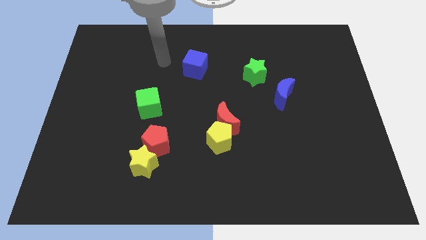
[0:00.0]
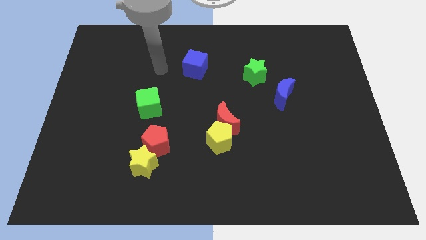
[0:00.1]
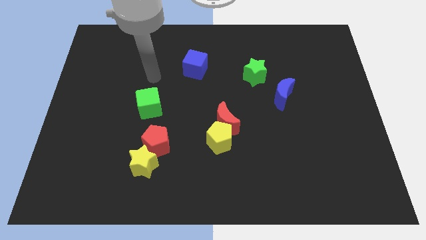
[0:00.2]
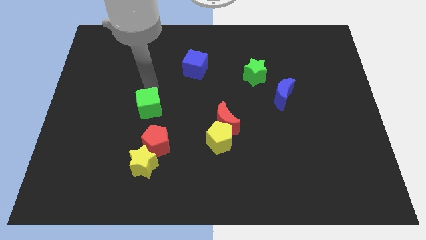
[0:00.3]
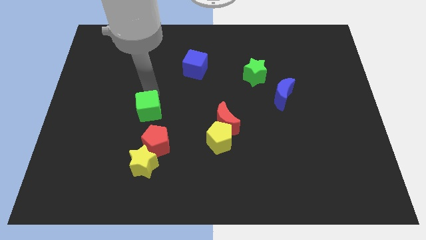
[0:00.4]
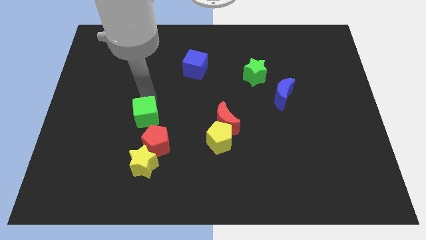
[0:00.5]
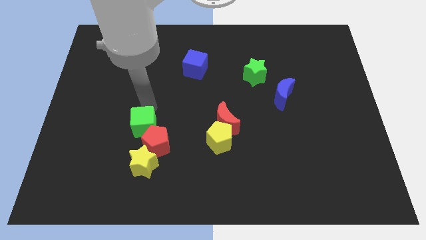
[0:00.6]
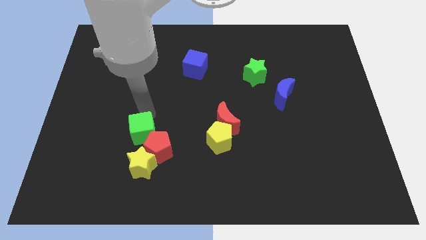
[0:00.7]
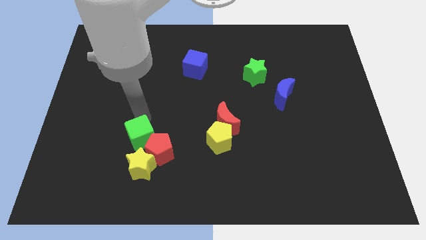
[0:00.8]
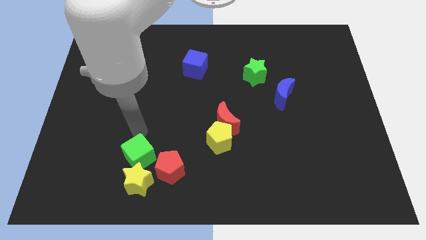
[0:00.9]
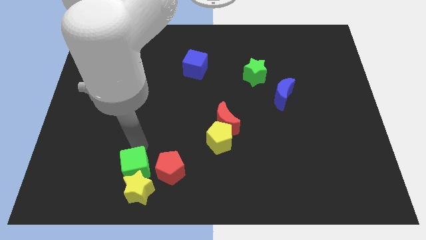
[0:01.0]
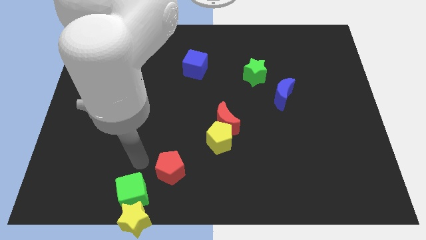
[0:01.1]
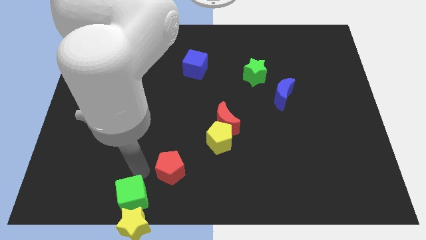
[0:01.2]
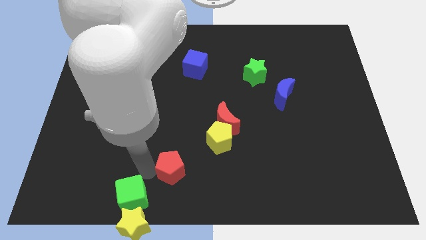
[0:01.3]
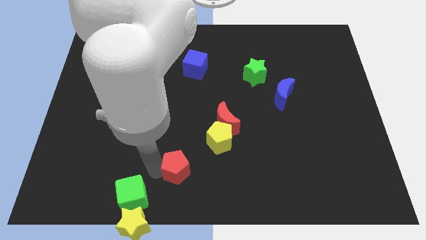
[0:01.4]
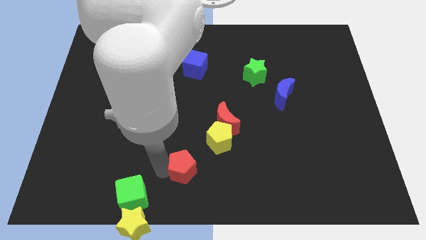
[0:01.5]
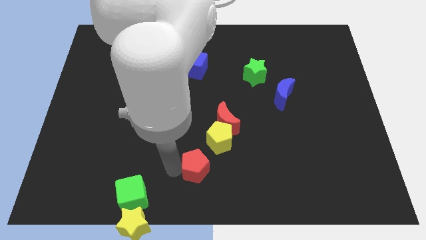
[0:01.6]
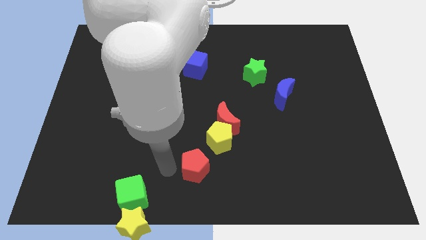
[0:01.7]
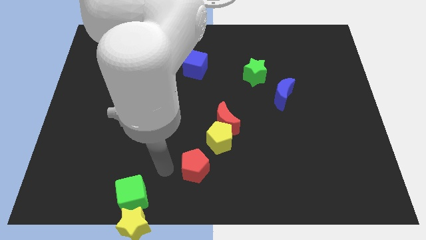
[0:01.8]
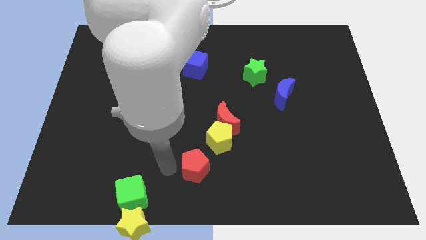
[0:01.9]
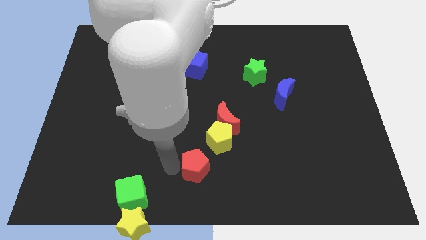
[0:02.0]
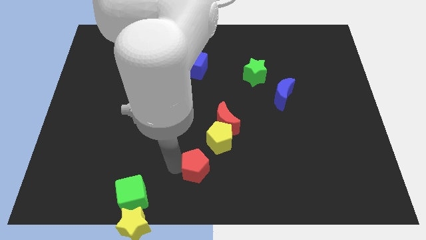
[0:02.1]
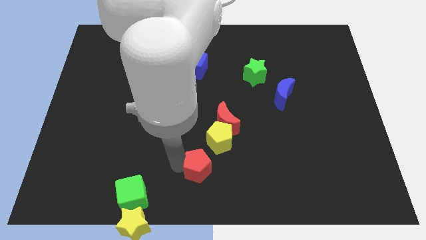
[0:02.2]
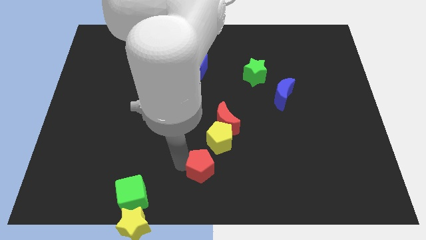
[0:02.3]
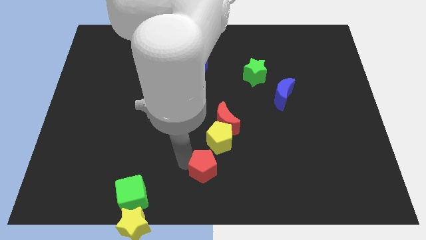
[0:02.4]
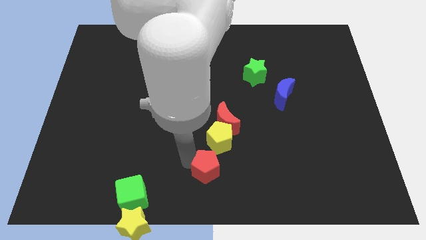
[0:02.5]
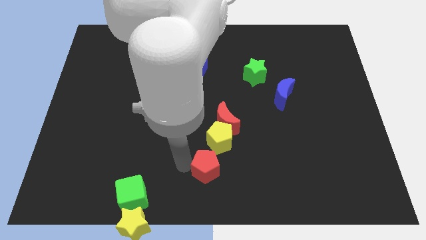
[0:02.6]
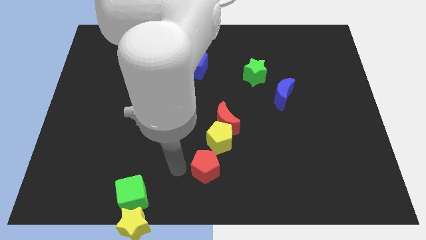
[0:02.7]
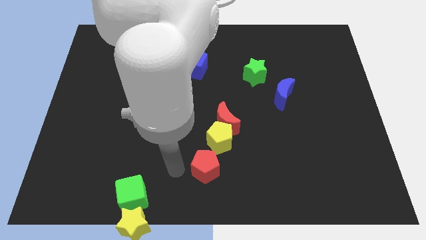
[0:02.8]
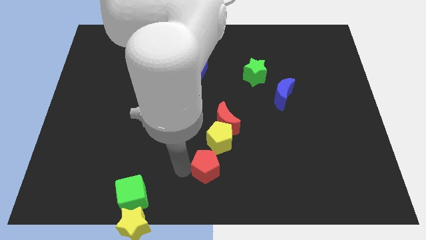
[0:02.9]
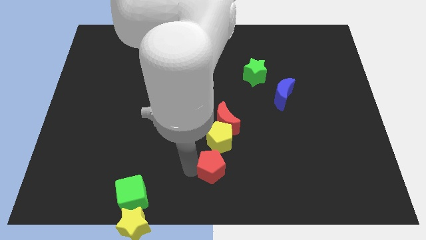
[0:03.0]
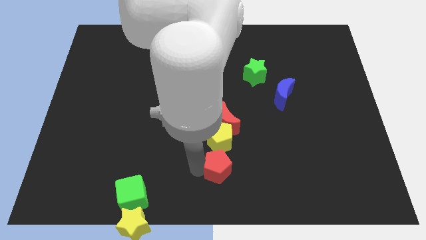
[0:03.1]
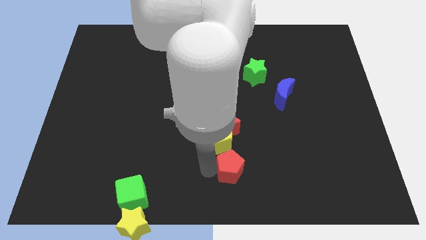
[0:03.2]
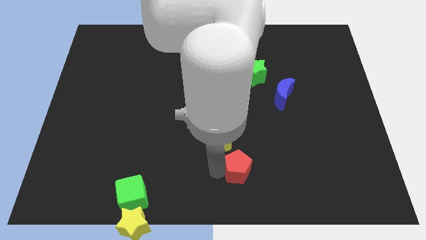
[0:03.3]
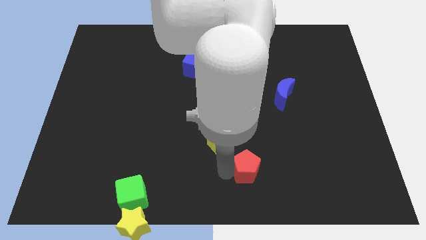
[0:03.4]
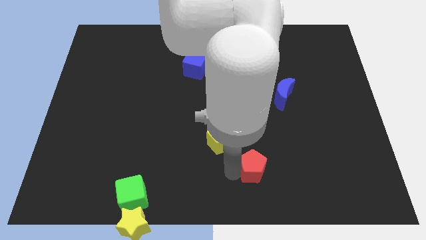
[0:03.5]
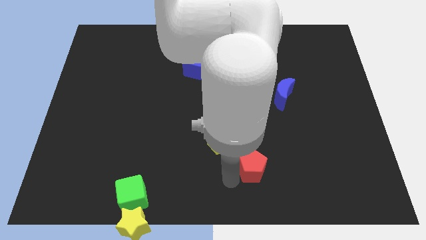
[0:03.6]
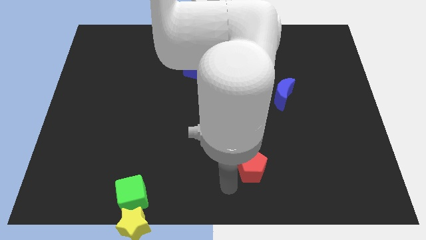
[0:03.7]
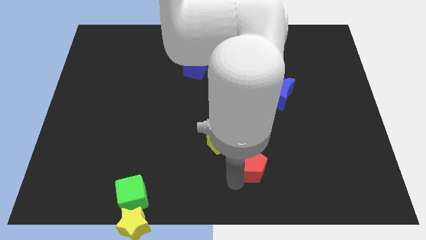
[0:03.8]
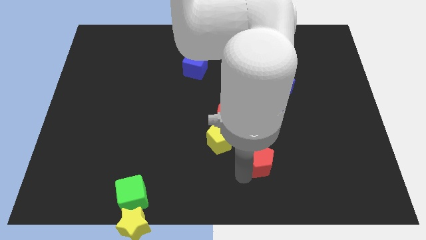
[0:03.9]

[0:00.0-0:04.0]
push the red pentagon right

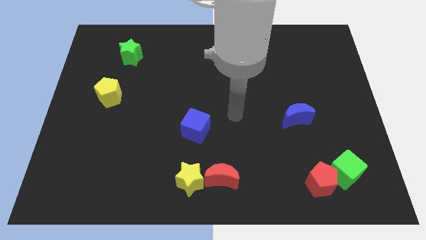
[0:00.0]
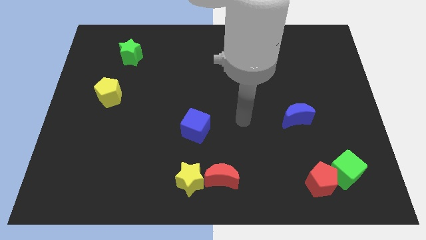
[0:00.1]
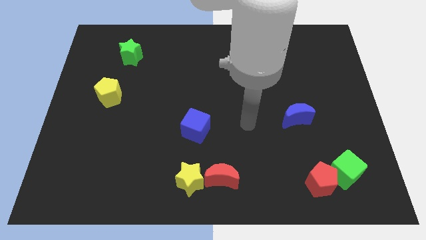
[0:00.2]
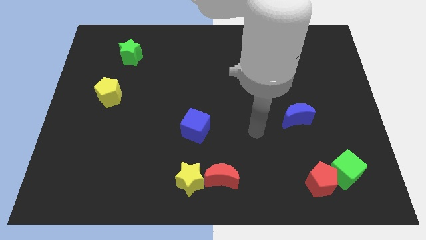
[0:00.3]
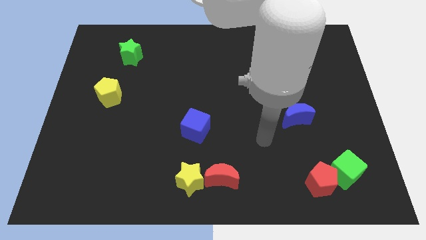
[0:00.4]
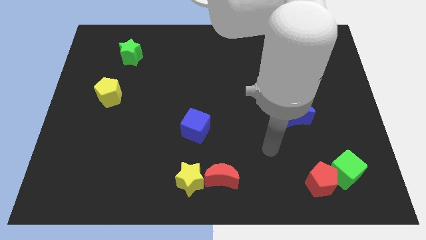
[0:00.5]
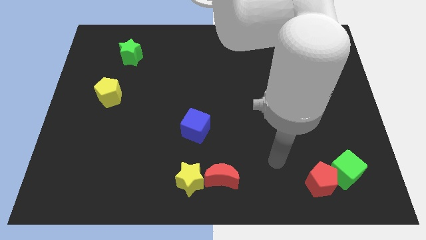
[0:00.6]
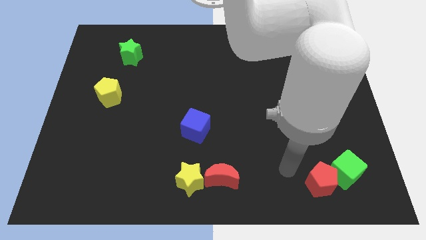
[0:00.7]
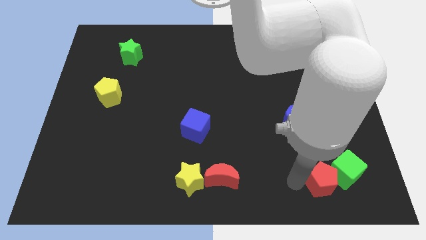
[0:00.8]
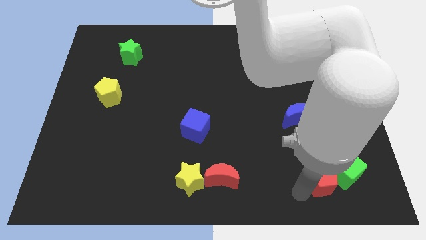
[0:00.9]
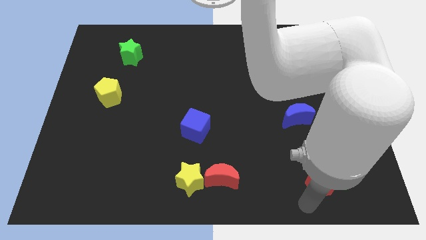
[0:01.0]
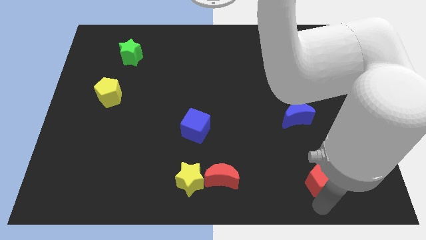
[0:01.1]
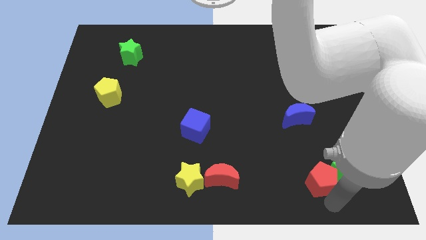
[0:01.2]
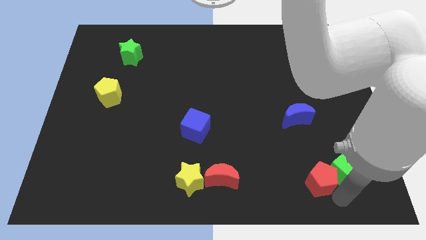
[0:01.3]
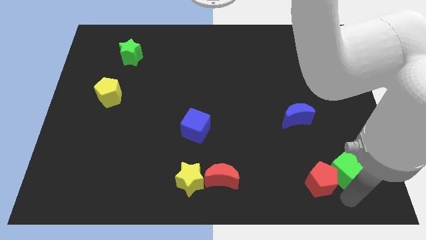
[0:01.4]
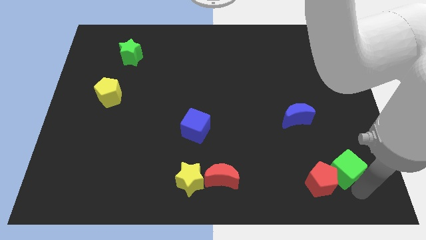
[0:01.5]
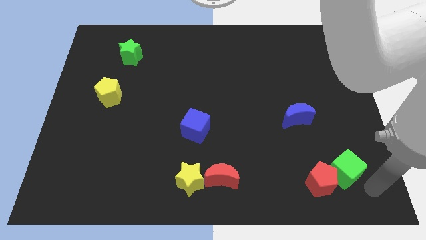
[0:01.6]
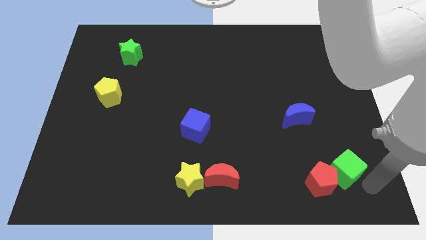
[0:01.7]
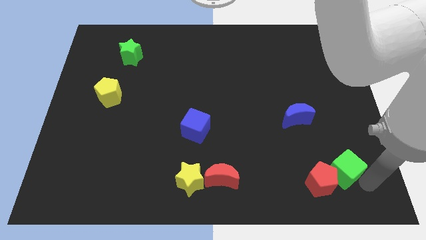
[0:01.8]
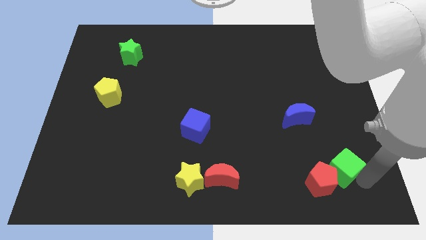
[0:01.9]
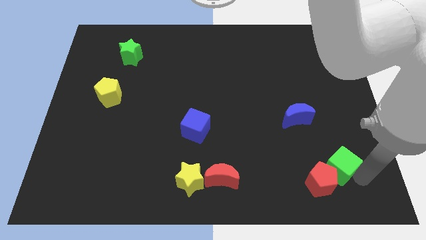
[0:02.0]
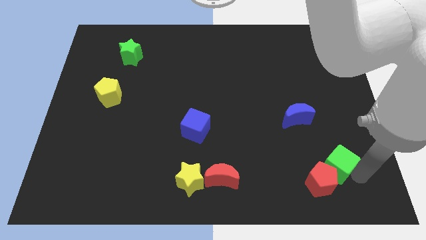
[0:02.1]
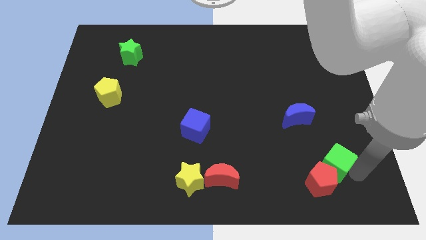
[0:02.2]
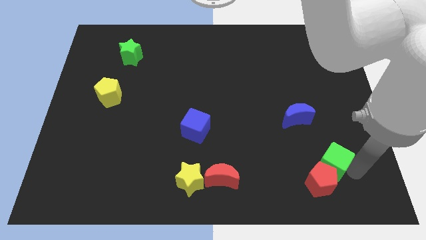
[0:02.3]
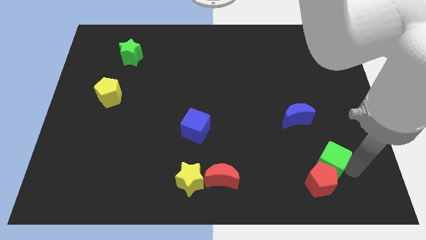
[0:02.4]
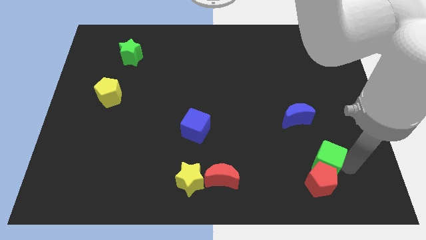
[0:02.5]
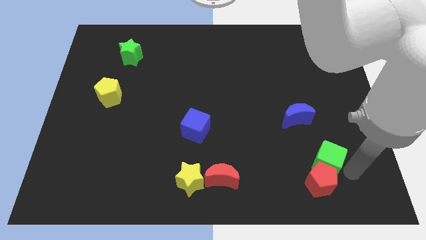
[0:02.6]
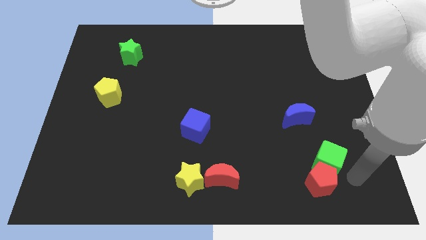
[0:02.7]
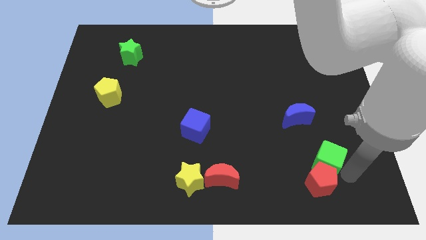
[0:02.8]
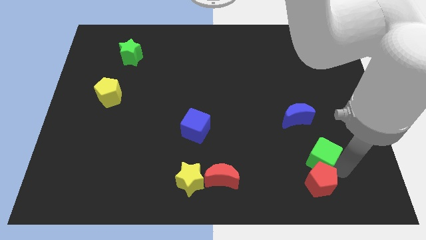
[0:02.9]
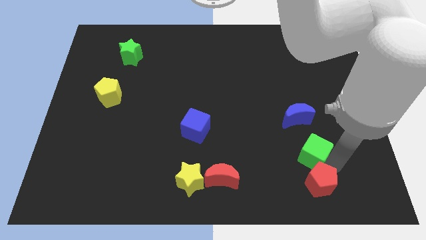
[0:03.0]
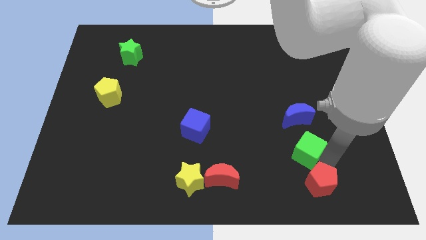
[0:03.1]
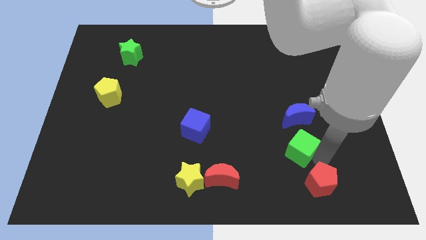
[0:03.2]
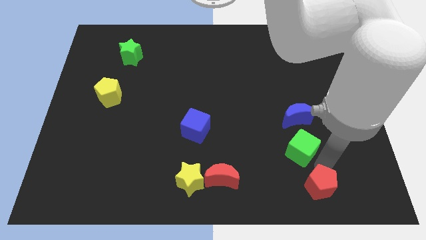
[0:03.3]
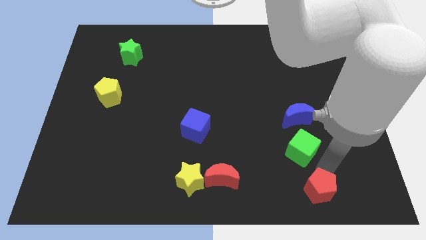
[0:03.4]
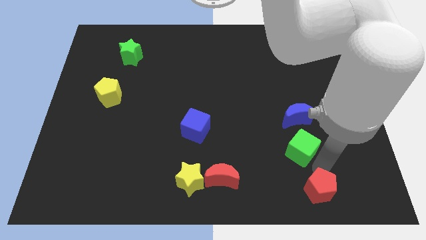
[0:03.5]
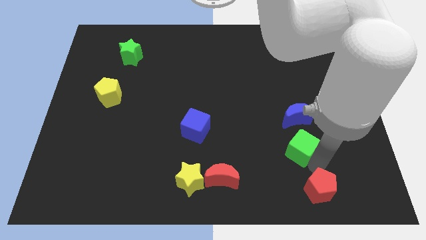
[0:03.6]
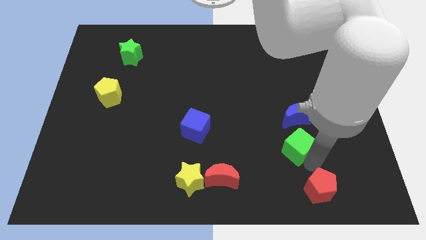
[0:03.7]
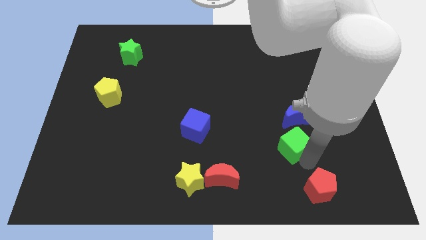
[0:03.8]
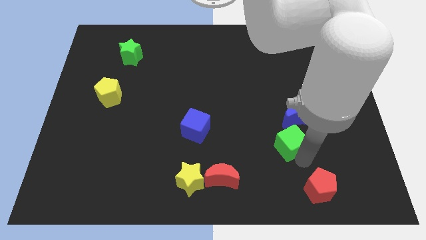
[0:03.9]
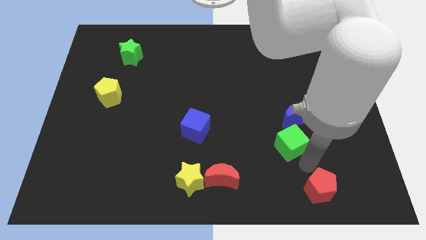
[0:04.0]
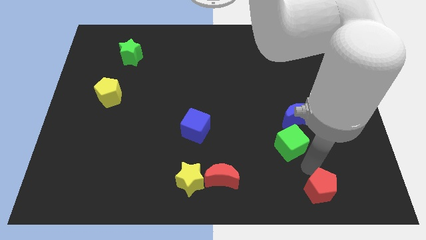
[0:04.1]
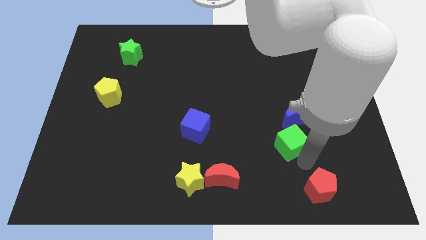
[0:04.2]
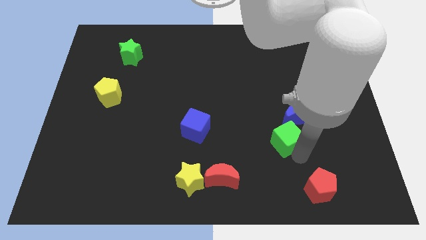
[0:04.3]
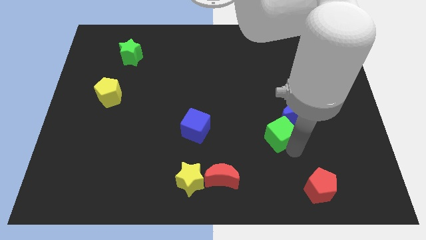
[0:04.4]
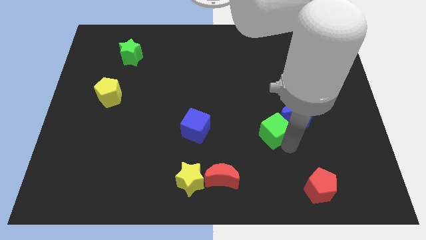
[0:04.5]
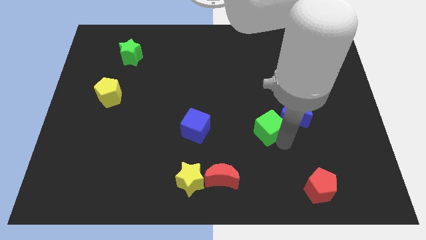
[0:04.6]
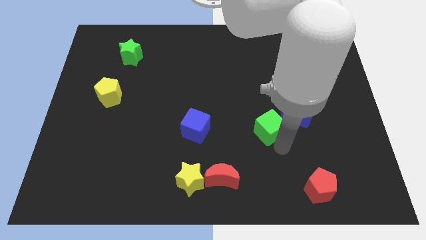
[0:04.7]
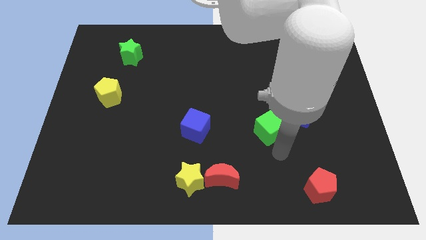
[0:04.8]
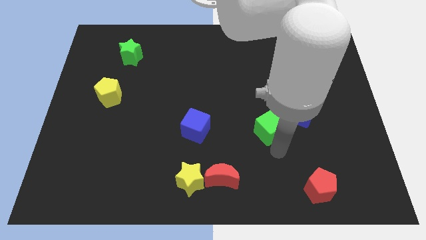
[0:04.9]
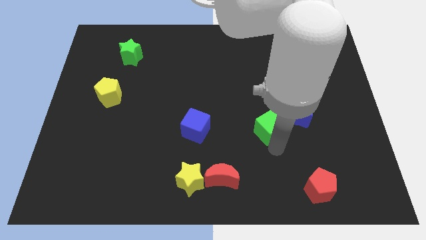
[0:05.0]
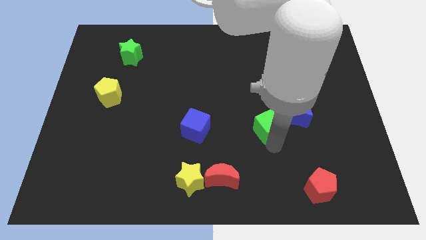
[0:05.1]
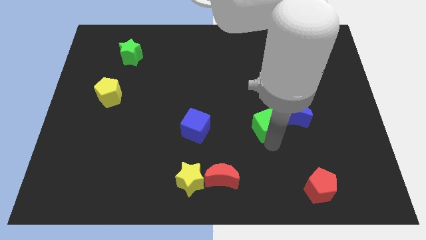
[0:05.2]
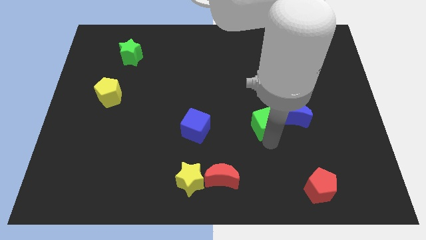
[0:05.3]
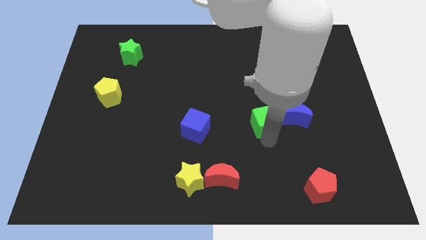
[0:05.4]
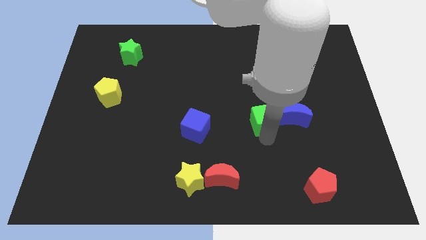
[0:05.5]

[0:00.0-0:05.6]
slide the green cube diagonally up and to the left
